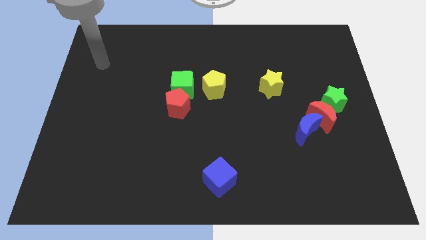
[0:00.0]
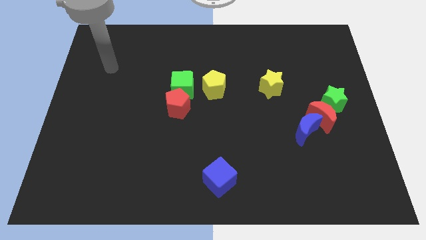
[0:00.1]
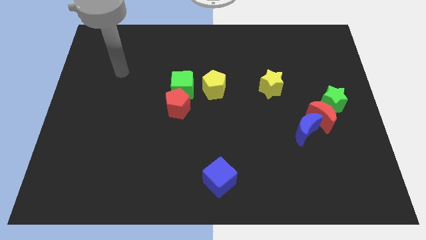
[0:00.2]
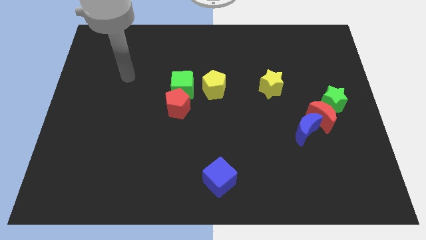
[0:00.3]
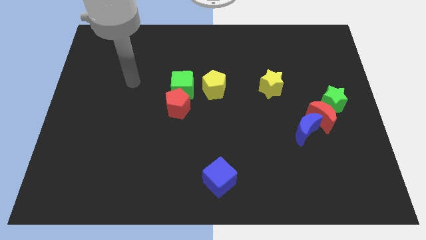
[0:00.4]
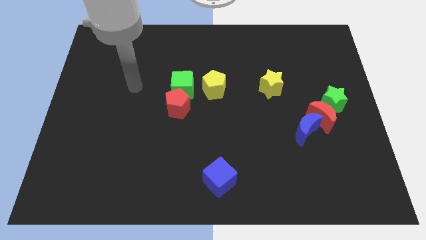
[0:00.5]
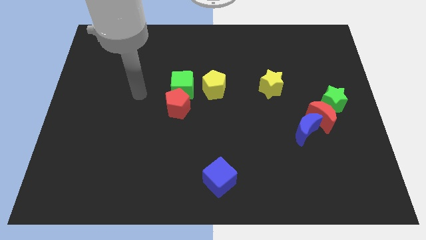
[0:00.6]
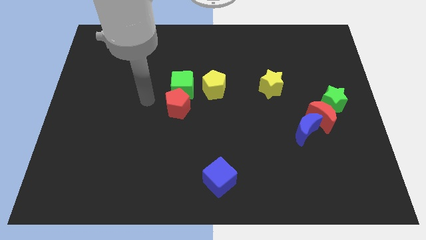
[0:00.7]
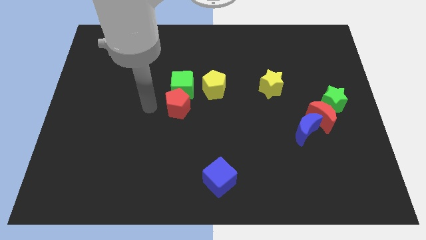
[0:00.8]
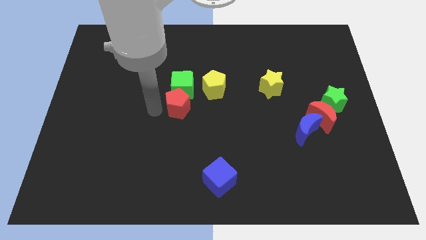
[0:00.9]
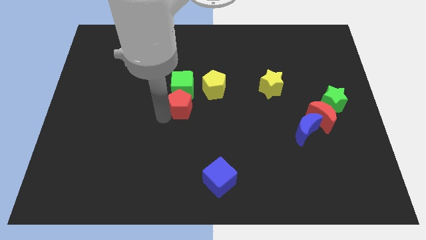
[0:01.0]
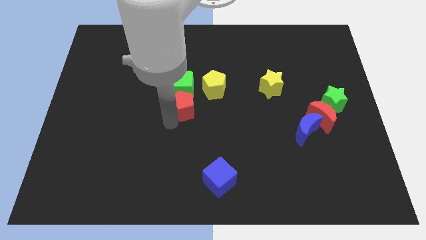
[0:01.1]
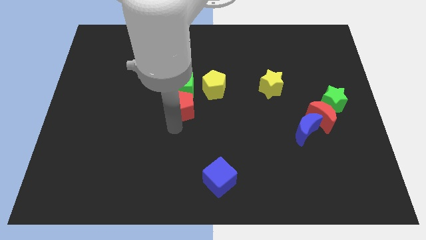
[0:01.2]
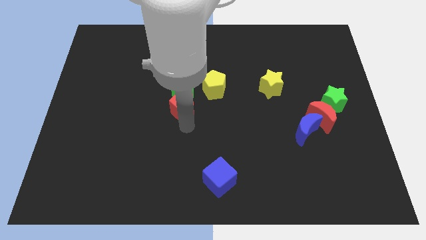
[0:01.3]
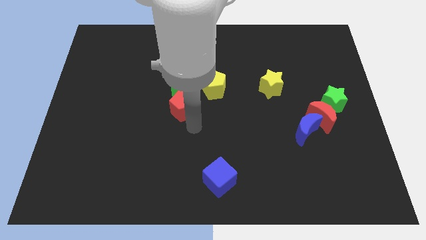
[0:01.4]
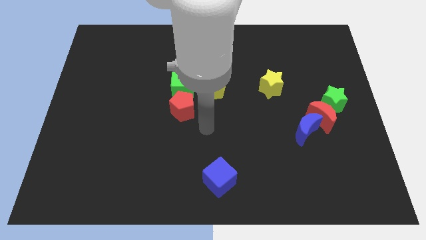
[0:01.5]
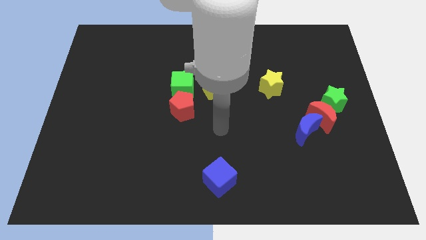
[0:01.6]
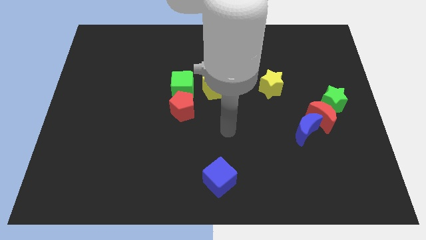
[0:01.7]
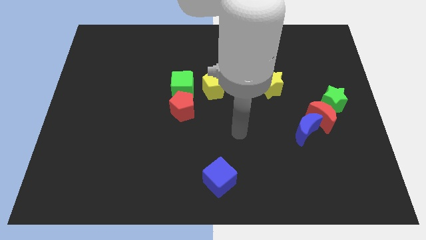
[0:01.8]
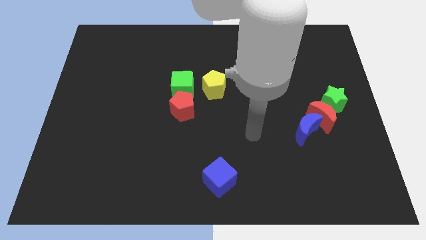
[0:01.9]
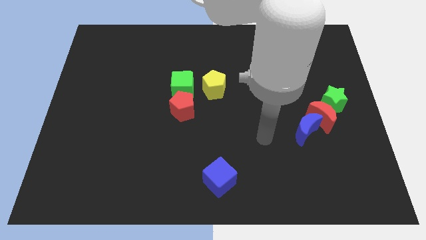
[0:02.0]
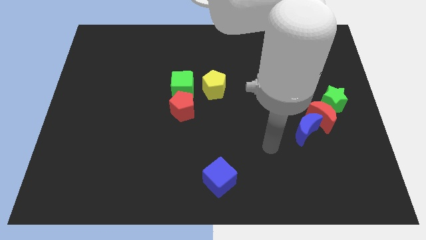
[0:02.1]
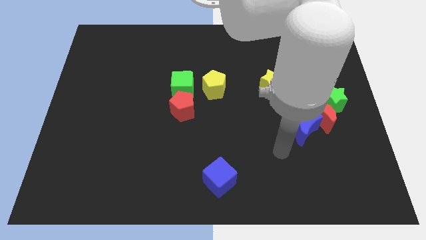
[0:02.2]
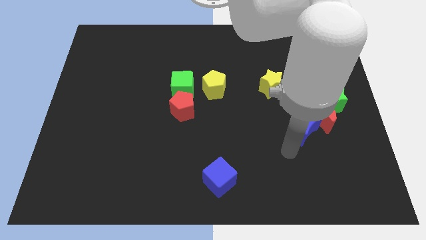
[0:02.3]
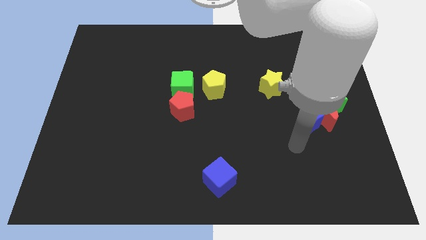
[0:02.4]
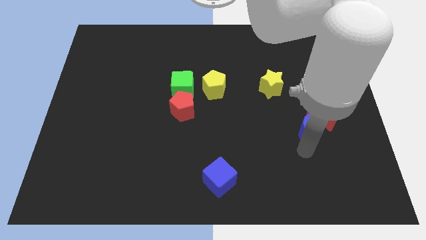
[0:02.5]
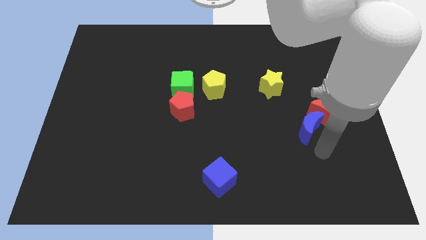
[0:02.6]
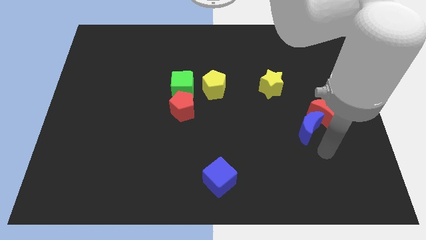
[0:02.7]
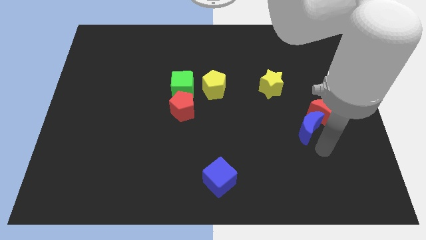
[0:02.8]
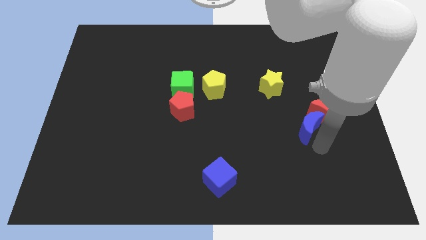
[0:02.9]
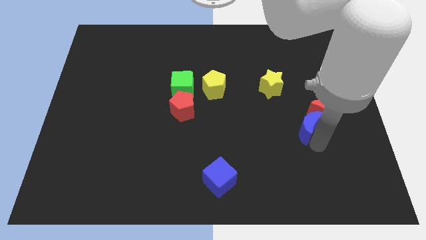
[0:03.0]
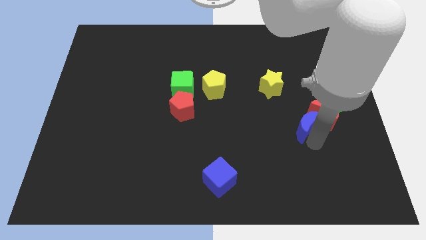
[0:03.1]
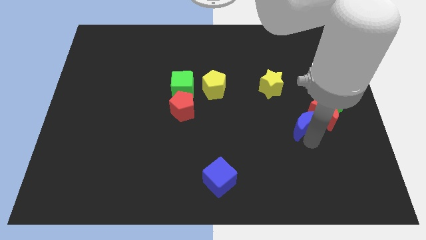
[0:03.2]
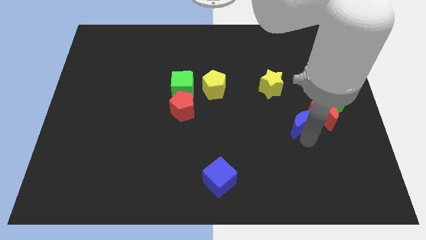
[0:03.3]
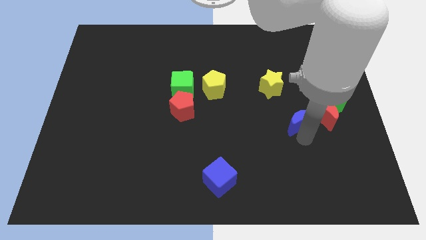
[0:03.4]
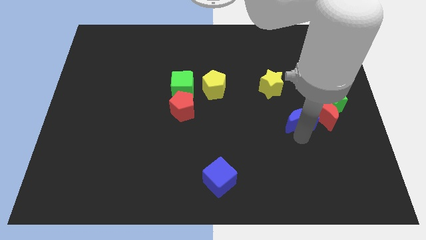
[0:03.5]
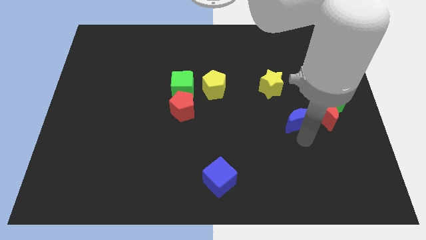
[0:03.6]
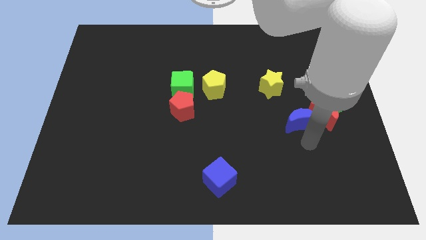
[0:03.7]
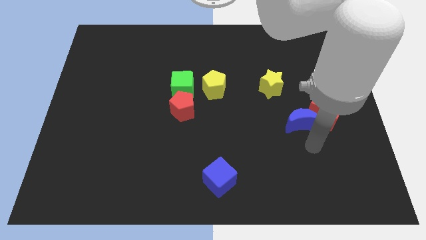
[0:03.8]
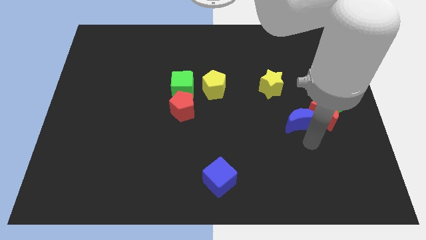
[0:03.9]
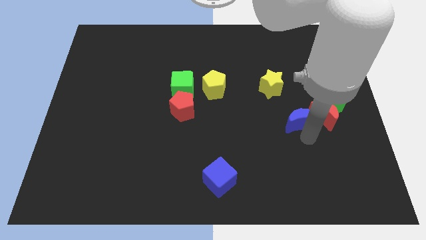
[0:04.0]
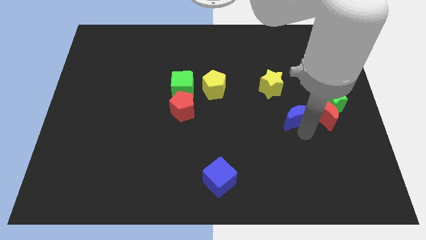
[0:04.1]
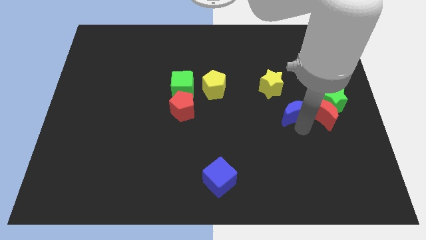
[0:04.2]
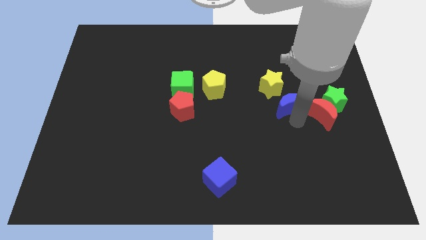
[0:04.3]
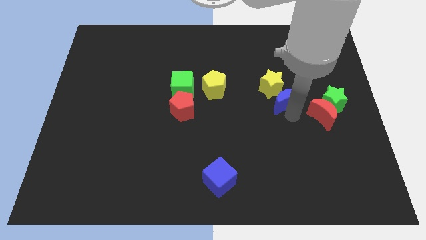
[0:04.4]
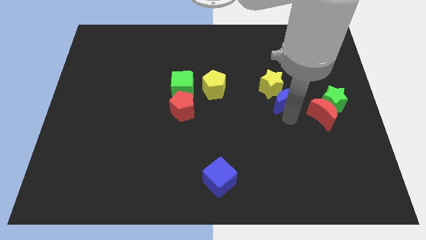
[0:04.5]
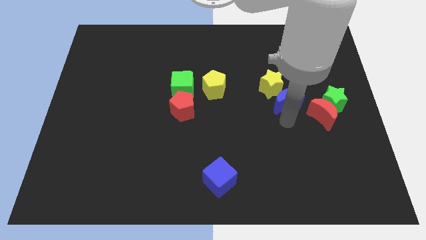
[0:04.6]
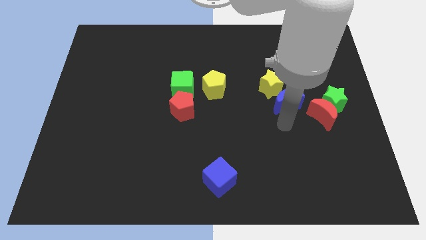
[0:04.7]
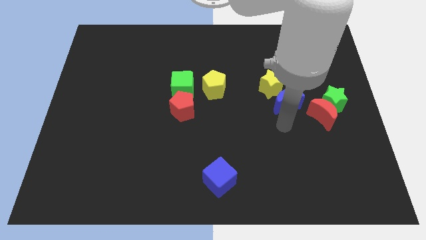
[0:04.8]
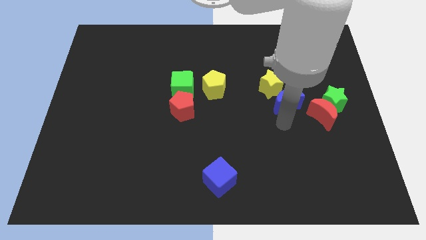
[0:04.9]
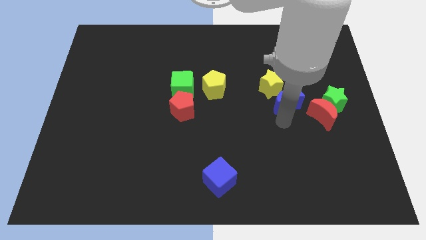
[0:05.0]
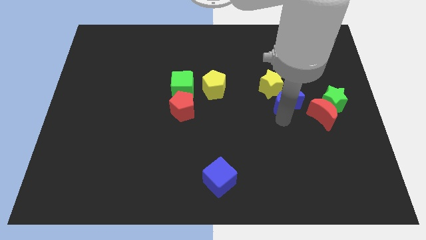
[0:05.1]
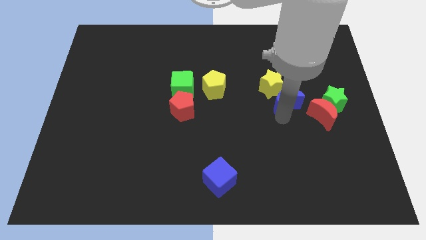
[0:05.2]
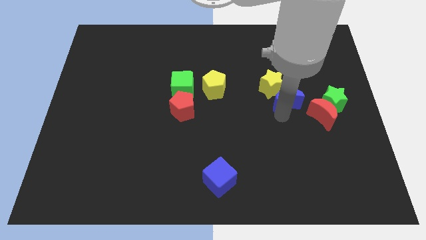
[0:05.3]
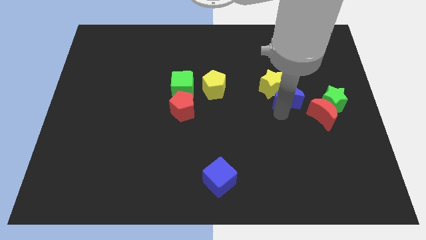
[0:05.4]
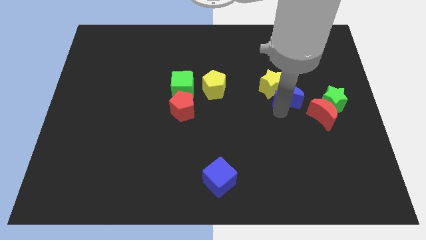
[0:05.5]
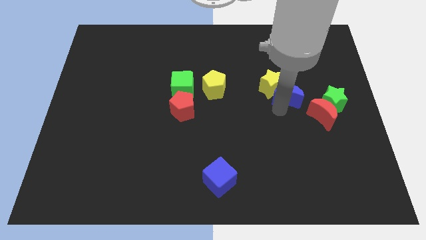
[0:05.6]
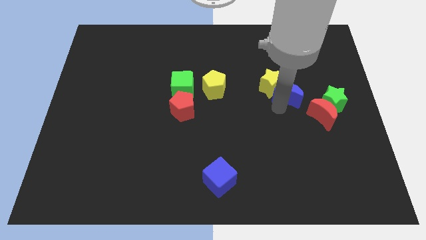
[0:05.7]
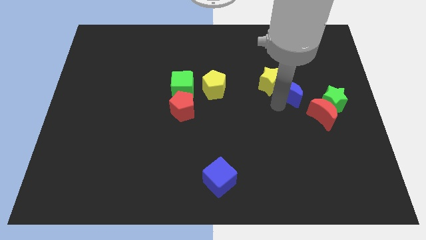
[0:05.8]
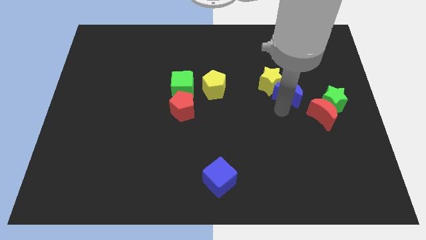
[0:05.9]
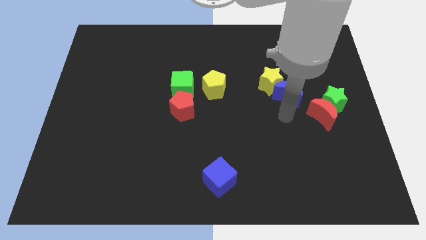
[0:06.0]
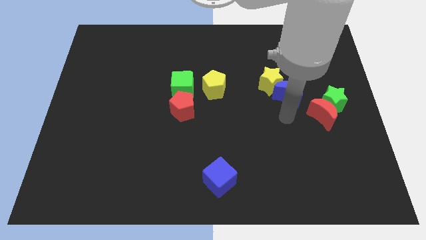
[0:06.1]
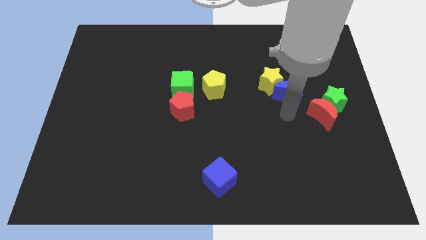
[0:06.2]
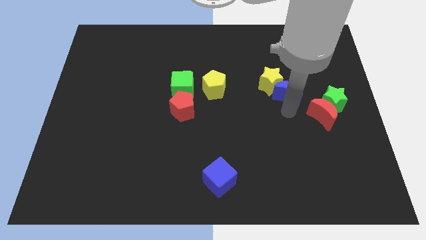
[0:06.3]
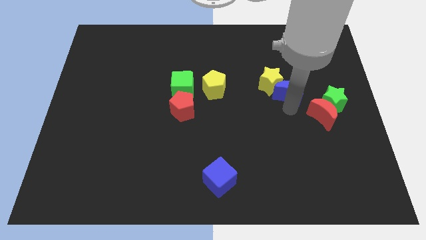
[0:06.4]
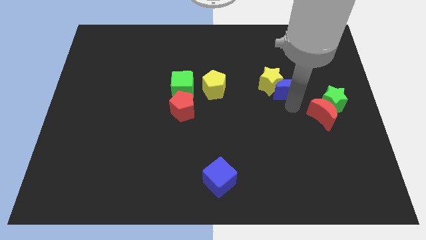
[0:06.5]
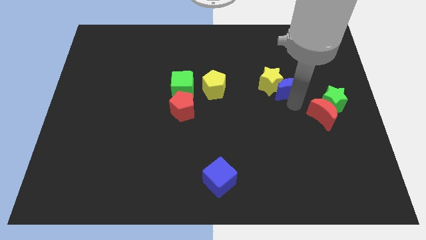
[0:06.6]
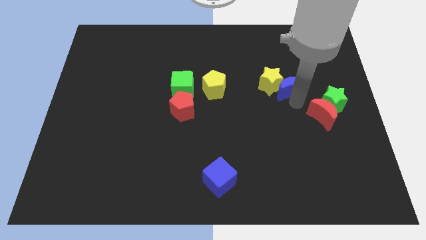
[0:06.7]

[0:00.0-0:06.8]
put the blue moon to the top right side of the yellow star

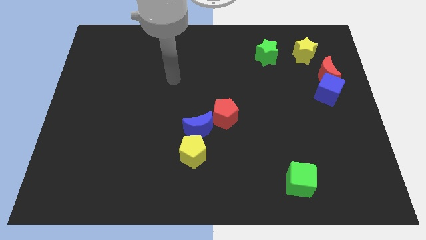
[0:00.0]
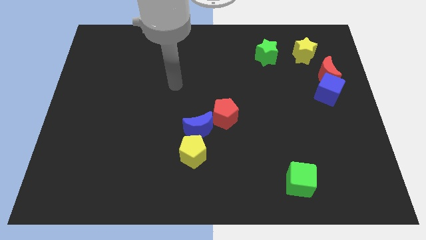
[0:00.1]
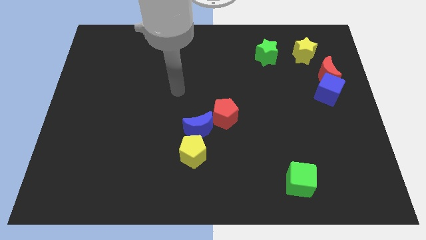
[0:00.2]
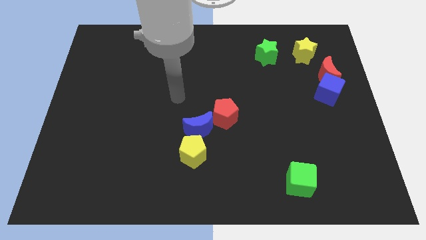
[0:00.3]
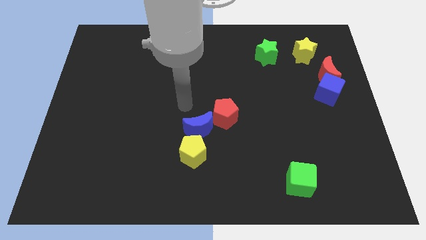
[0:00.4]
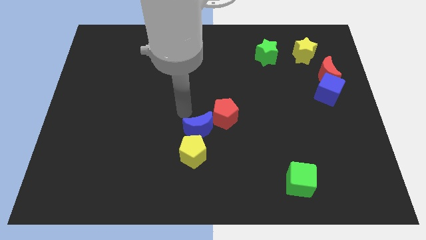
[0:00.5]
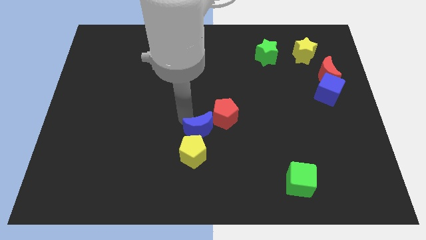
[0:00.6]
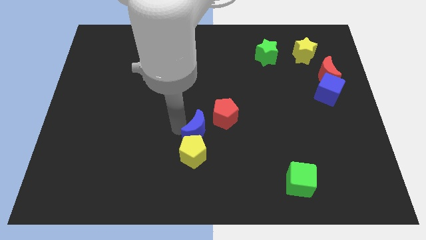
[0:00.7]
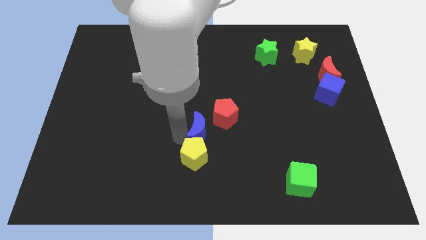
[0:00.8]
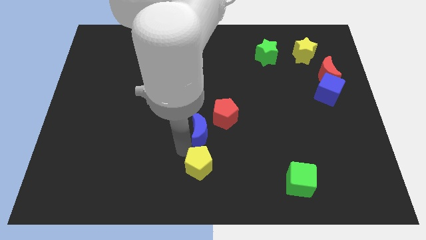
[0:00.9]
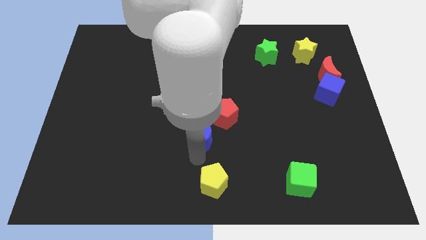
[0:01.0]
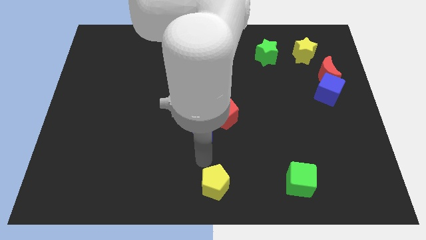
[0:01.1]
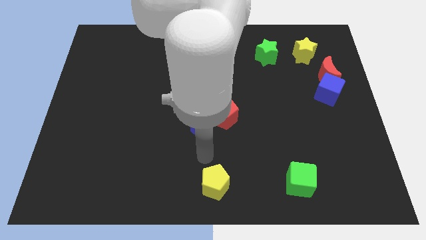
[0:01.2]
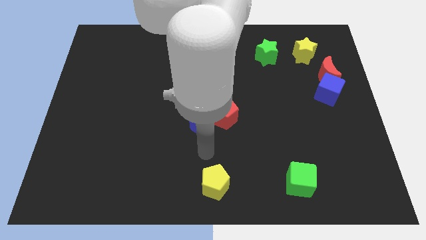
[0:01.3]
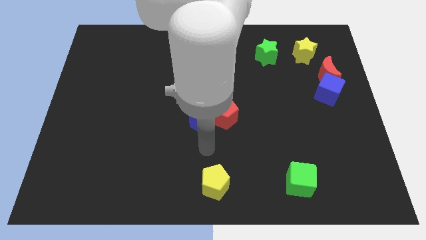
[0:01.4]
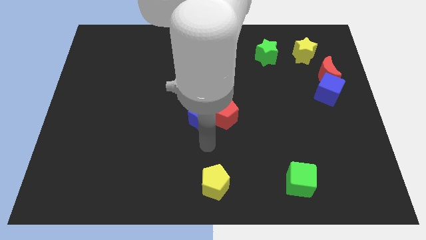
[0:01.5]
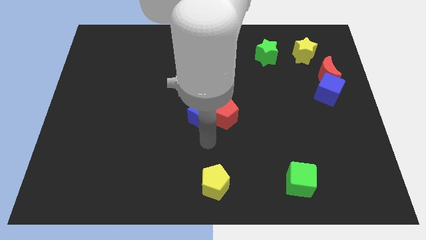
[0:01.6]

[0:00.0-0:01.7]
push the blue moon diagonally up and to the left of the red pentagon
